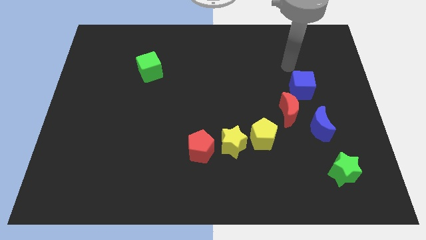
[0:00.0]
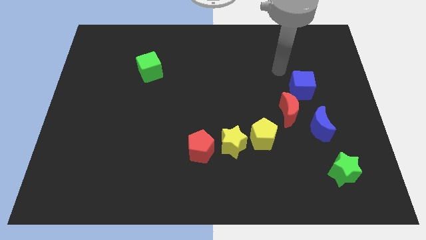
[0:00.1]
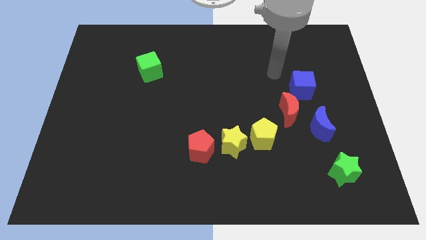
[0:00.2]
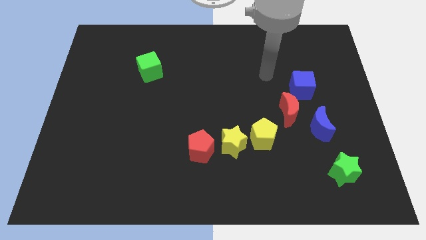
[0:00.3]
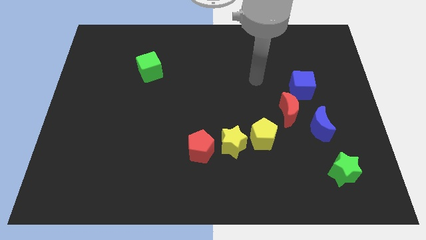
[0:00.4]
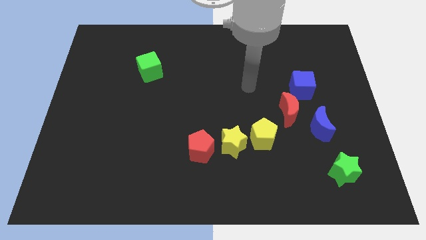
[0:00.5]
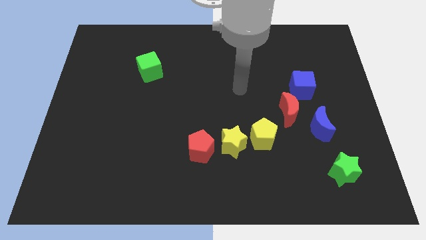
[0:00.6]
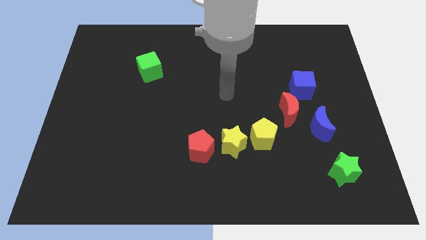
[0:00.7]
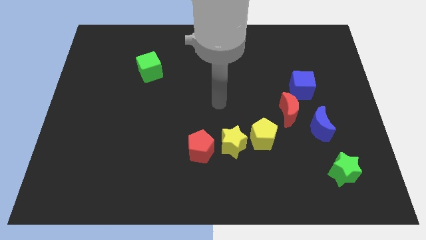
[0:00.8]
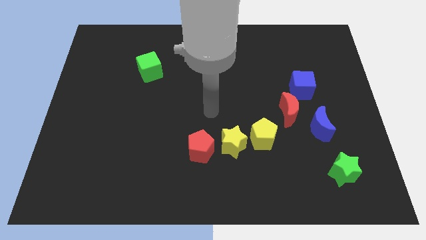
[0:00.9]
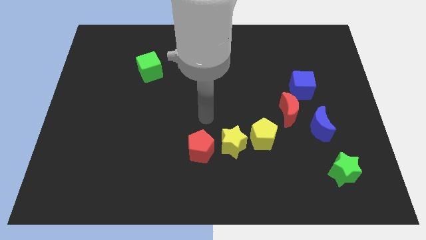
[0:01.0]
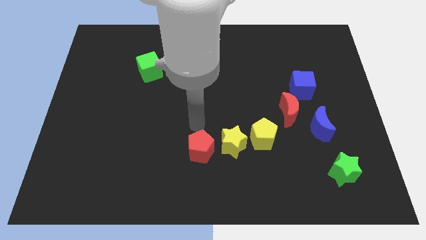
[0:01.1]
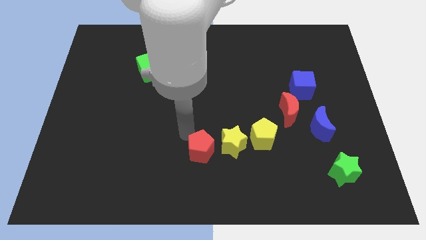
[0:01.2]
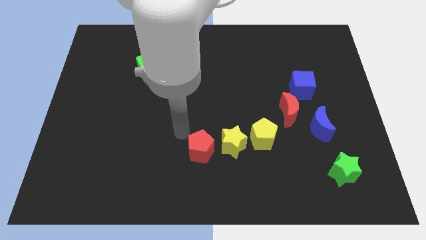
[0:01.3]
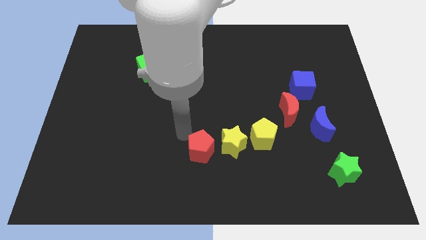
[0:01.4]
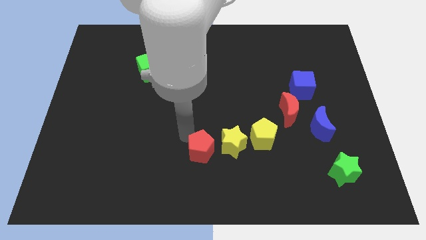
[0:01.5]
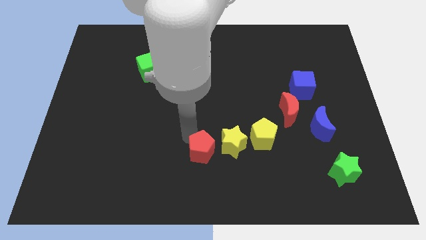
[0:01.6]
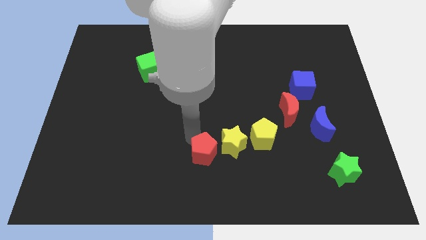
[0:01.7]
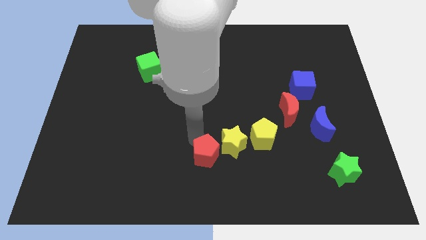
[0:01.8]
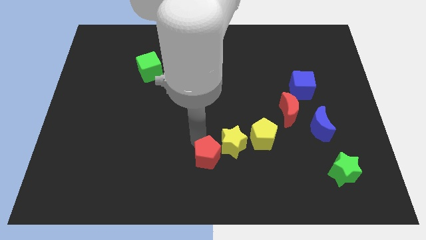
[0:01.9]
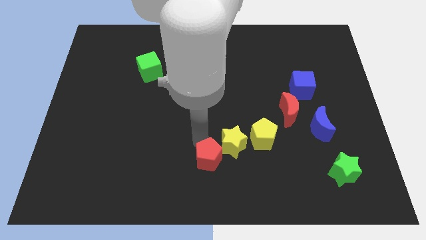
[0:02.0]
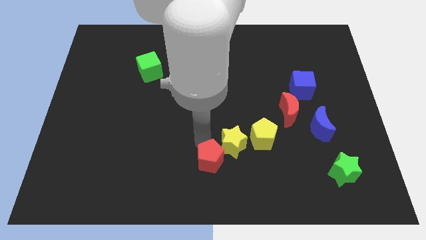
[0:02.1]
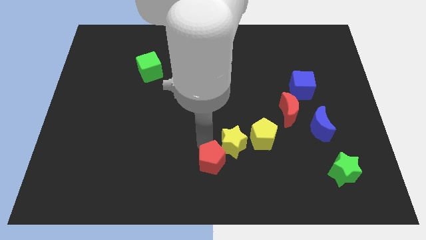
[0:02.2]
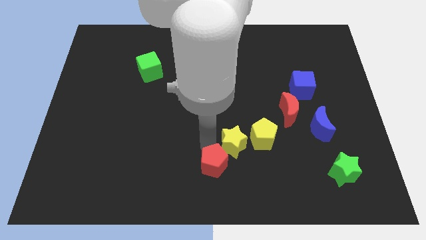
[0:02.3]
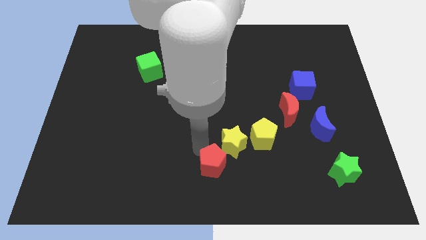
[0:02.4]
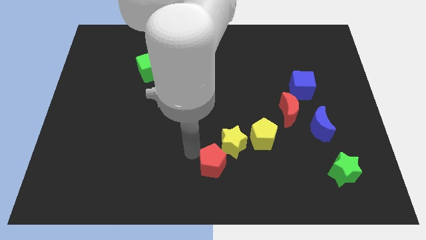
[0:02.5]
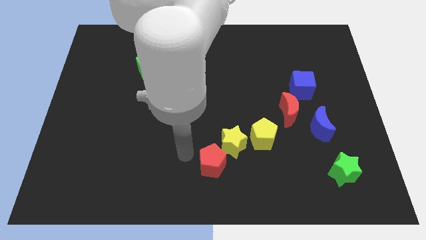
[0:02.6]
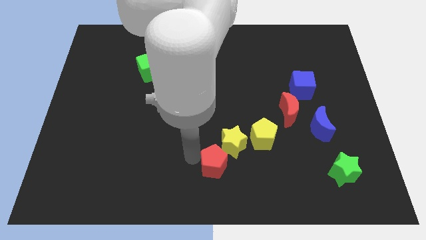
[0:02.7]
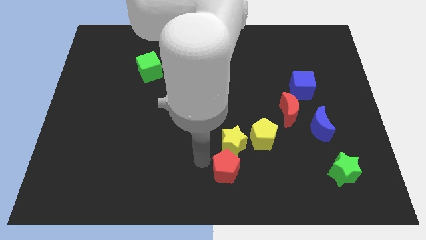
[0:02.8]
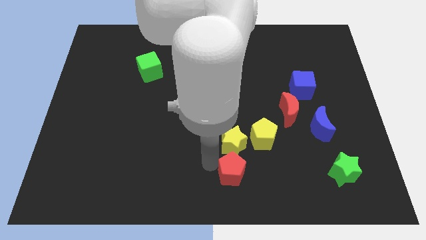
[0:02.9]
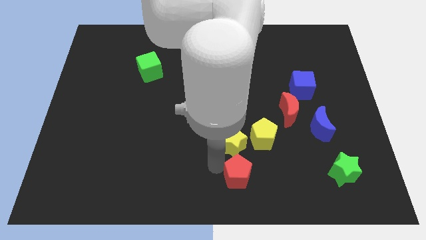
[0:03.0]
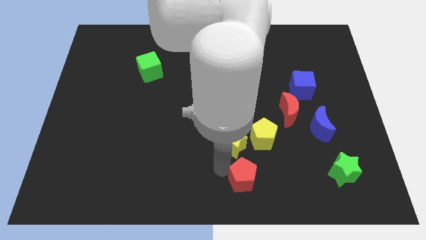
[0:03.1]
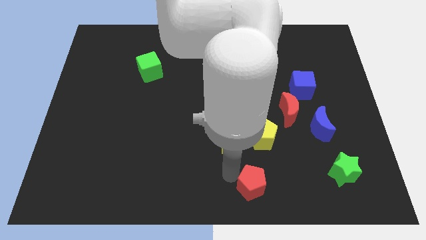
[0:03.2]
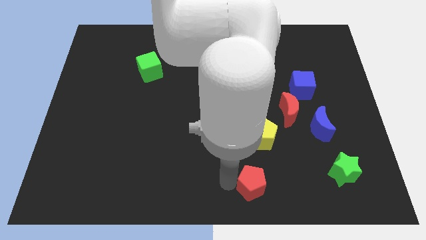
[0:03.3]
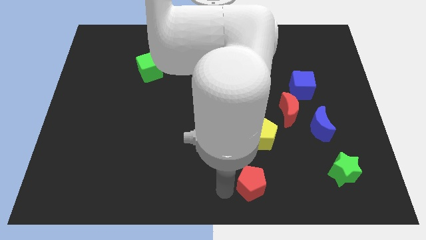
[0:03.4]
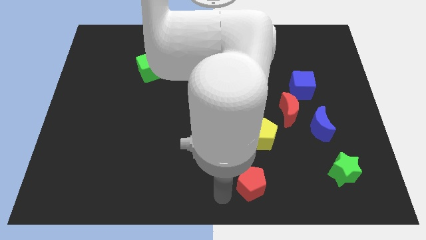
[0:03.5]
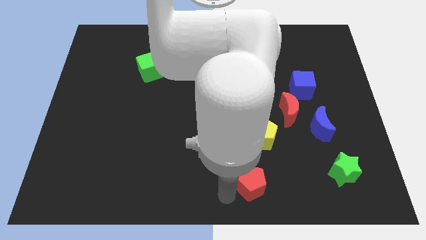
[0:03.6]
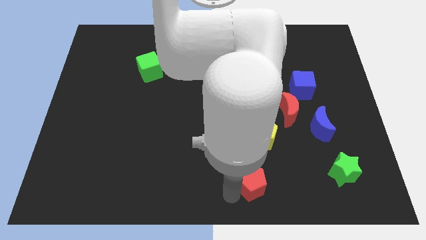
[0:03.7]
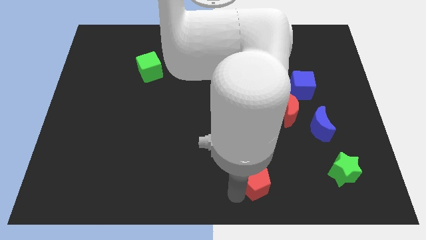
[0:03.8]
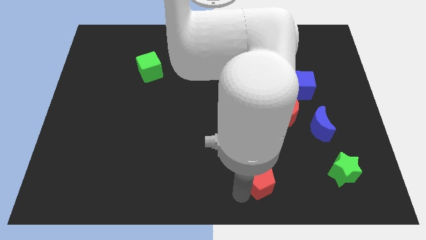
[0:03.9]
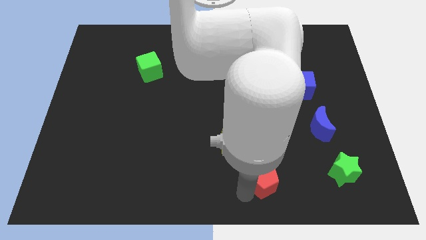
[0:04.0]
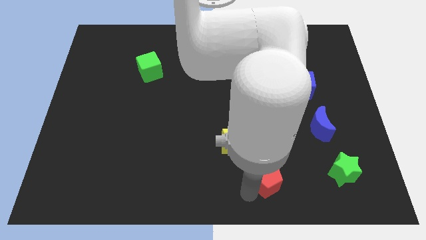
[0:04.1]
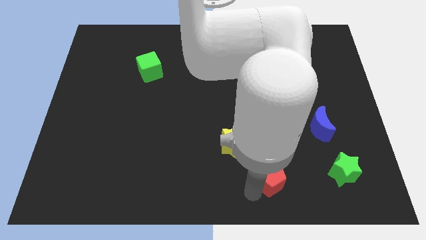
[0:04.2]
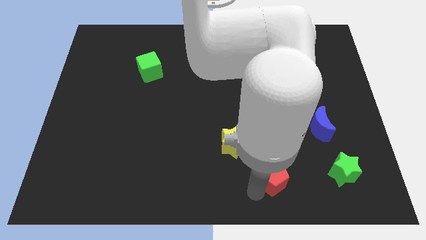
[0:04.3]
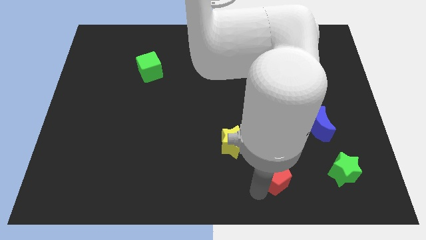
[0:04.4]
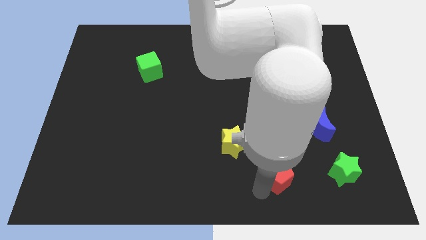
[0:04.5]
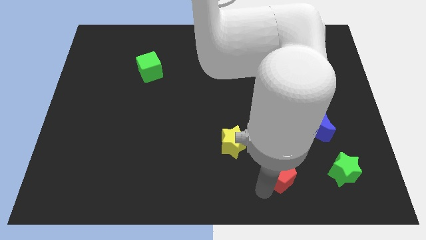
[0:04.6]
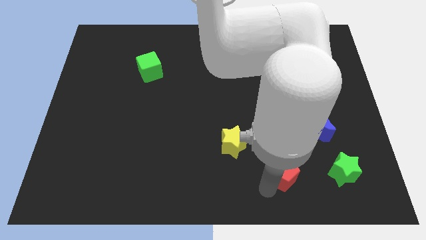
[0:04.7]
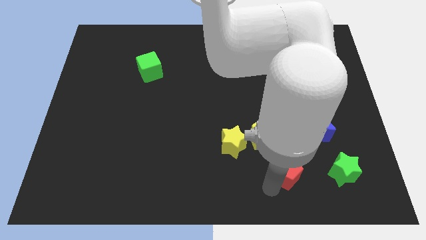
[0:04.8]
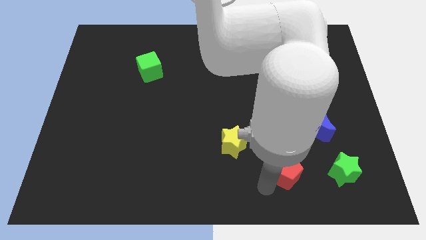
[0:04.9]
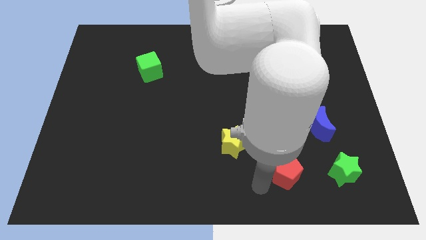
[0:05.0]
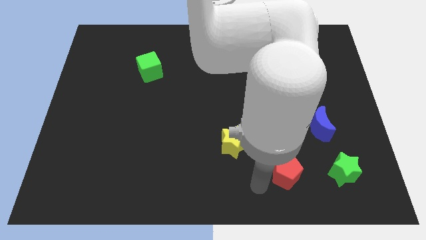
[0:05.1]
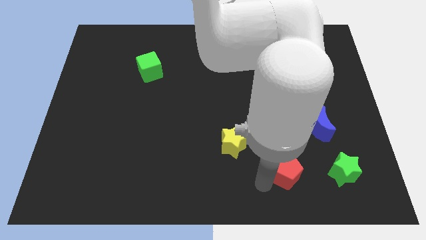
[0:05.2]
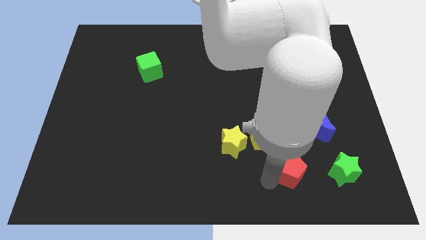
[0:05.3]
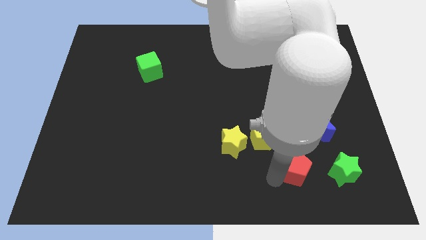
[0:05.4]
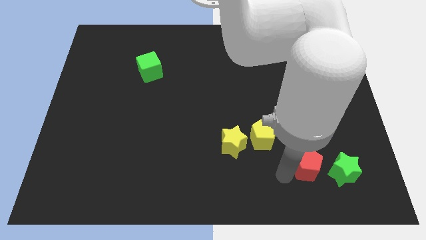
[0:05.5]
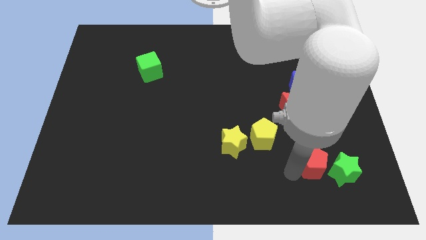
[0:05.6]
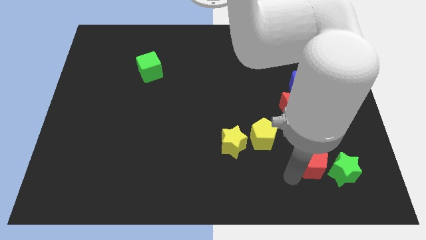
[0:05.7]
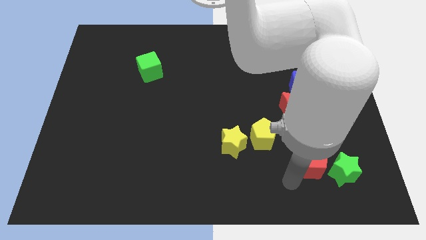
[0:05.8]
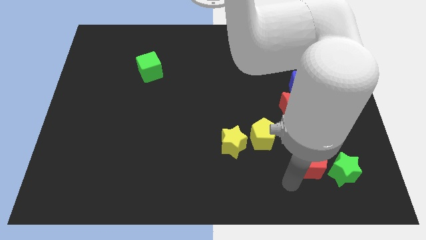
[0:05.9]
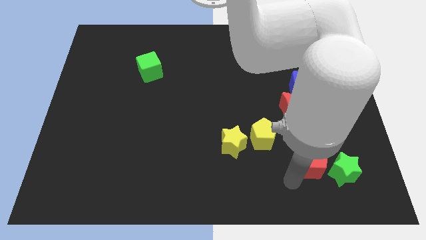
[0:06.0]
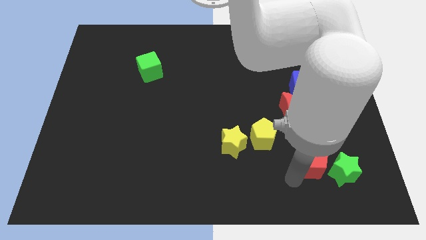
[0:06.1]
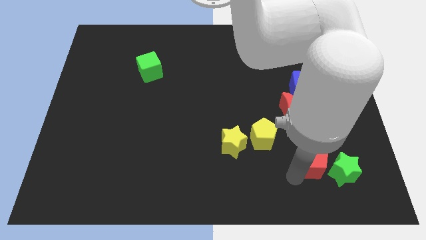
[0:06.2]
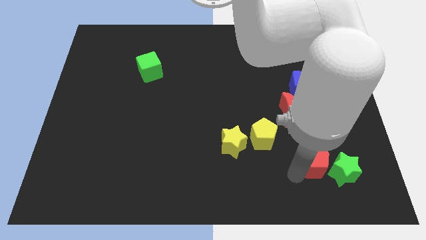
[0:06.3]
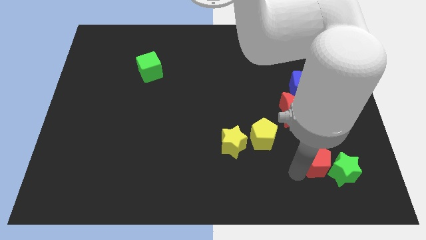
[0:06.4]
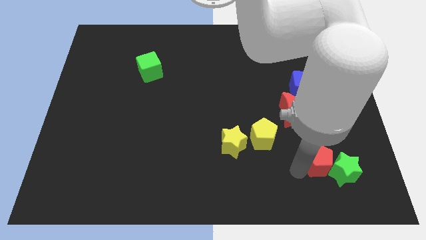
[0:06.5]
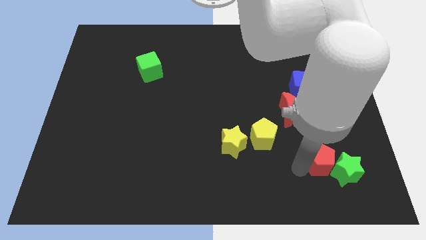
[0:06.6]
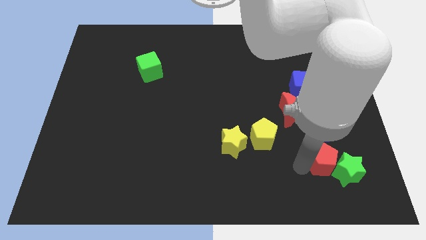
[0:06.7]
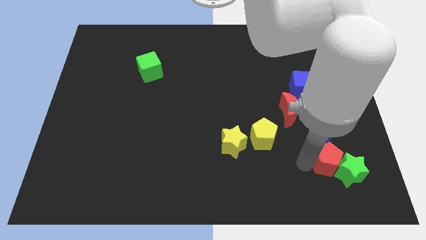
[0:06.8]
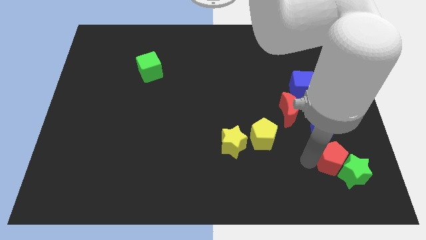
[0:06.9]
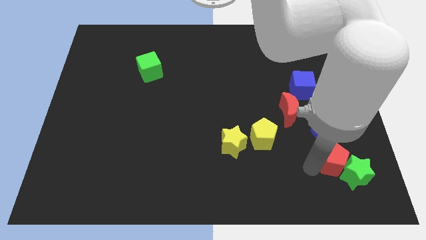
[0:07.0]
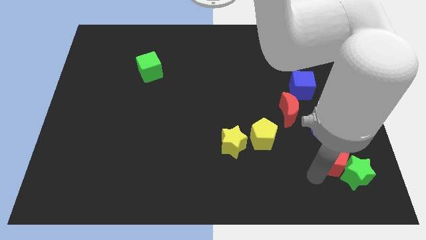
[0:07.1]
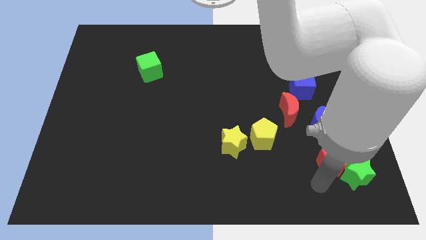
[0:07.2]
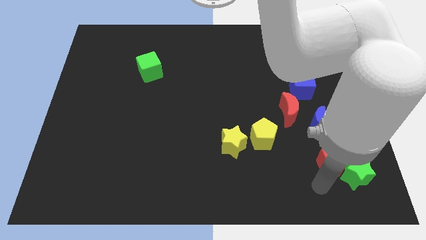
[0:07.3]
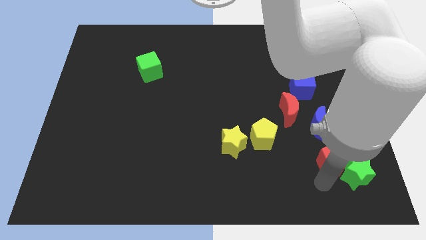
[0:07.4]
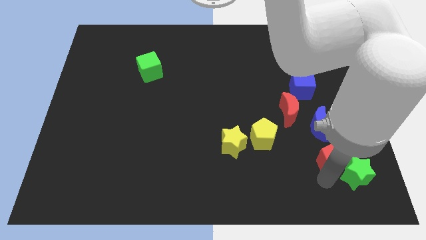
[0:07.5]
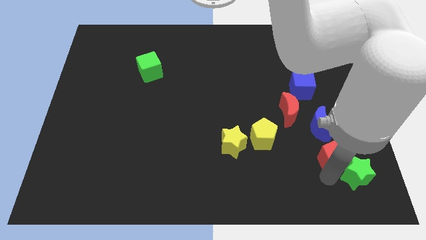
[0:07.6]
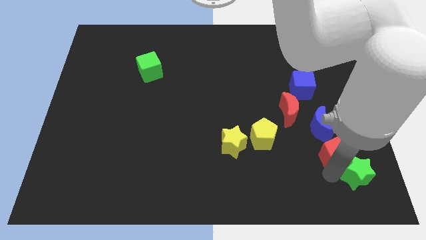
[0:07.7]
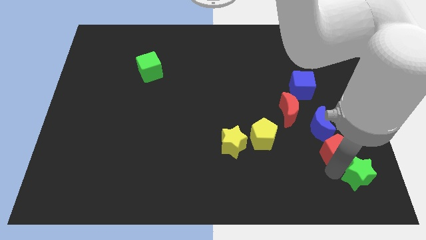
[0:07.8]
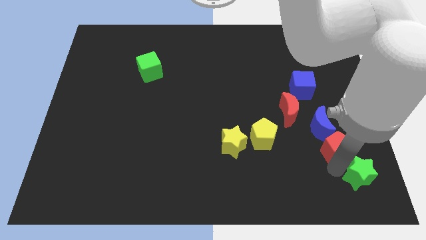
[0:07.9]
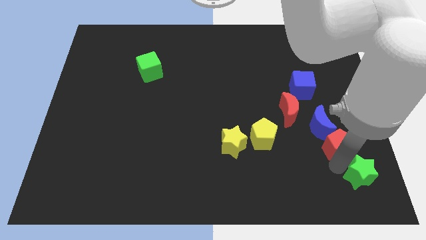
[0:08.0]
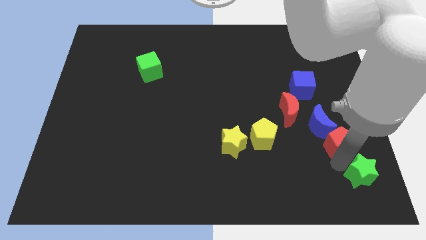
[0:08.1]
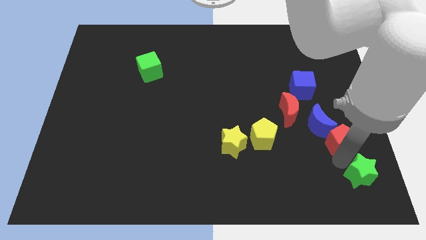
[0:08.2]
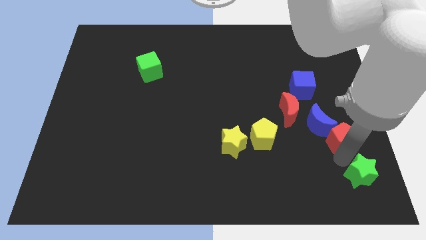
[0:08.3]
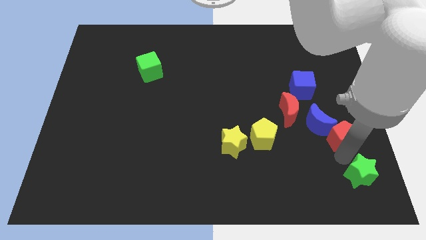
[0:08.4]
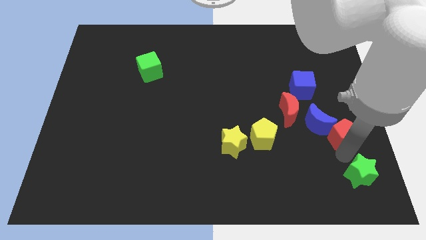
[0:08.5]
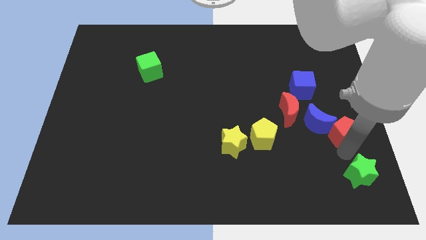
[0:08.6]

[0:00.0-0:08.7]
move the red pentagon to the center right
